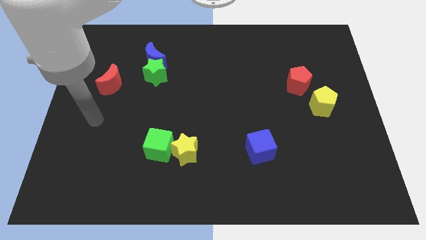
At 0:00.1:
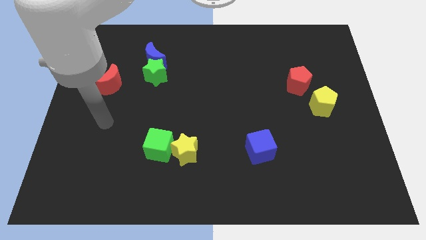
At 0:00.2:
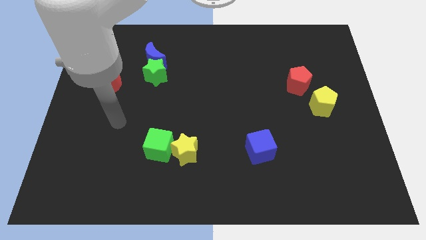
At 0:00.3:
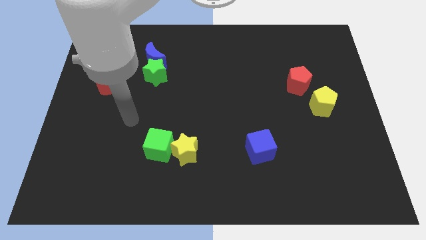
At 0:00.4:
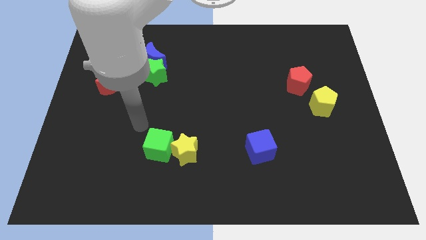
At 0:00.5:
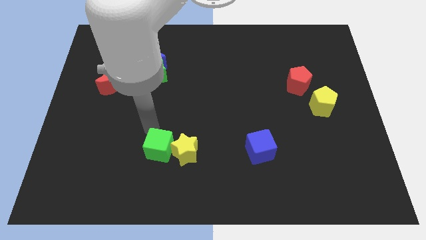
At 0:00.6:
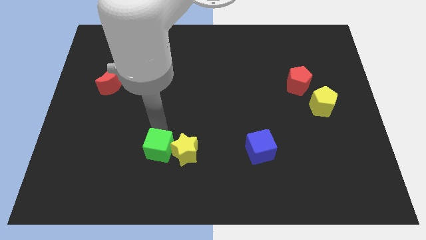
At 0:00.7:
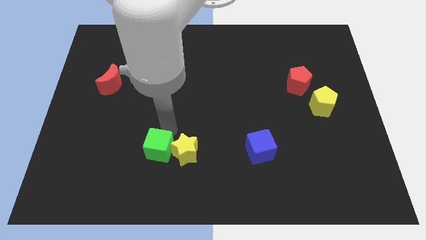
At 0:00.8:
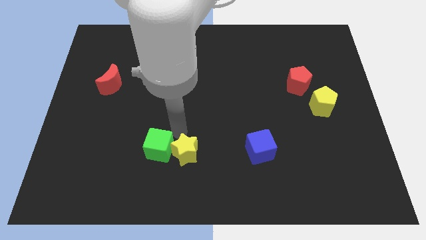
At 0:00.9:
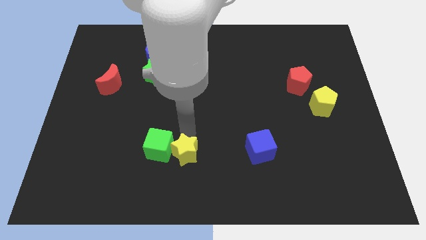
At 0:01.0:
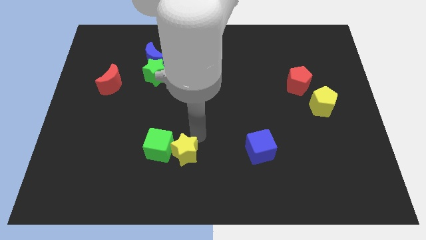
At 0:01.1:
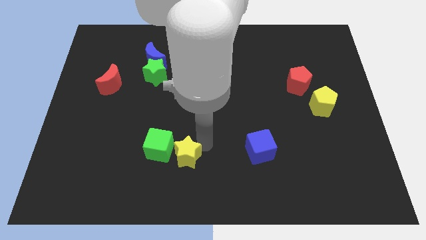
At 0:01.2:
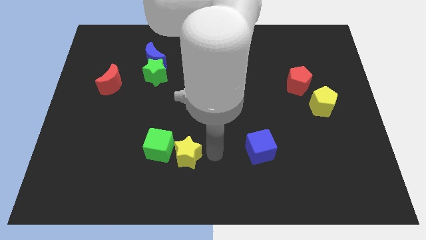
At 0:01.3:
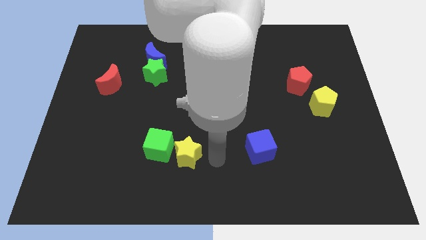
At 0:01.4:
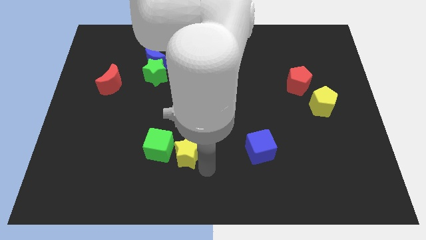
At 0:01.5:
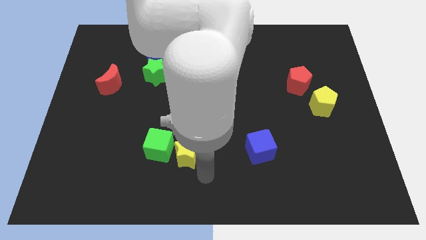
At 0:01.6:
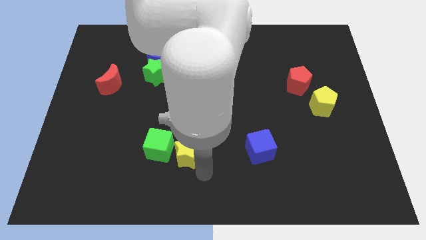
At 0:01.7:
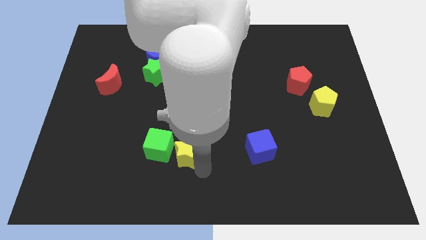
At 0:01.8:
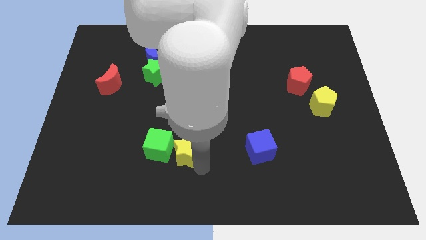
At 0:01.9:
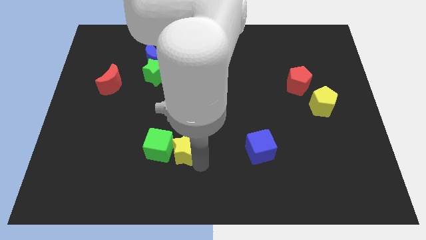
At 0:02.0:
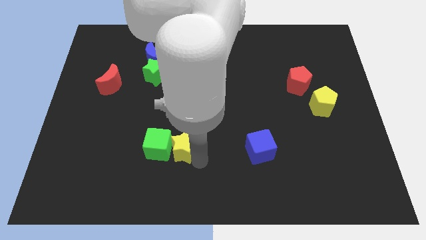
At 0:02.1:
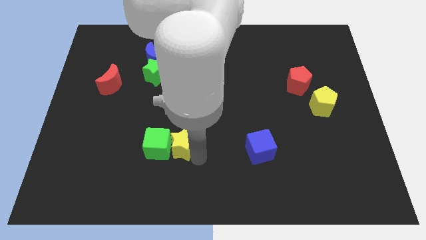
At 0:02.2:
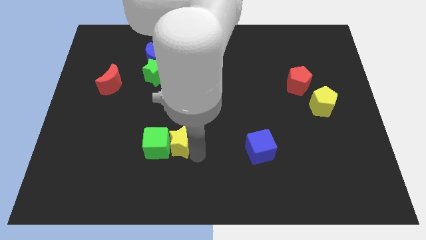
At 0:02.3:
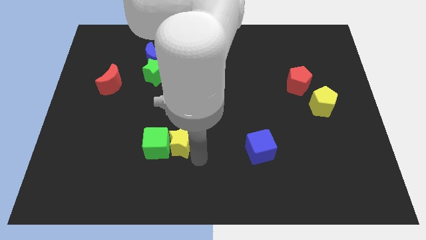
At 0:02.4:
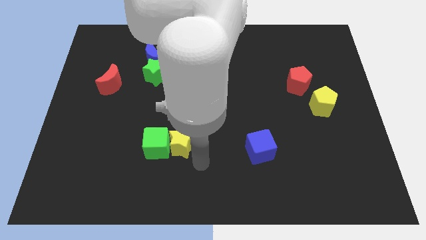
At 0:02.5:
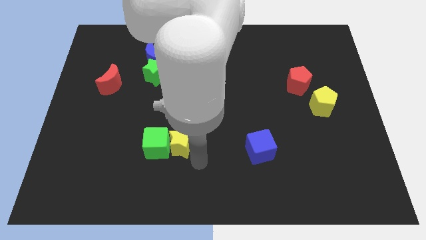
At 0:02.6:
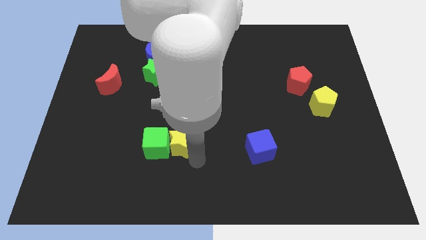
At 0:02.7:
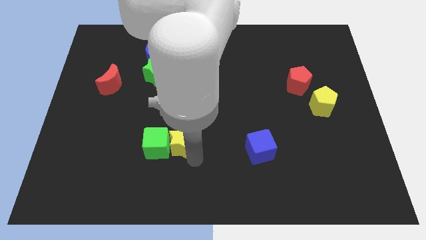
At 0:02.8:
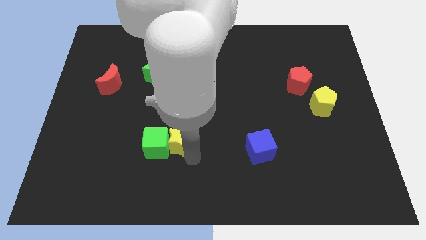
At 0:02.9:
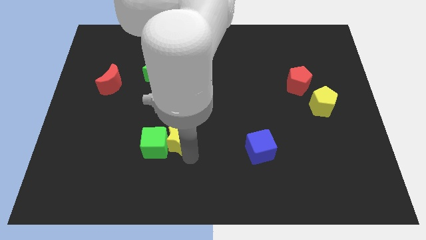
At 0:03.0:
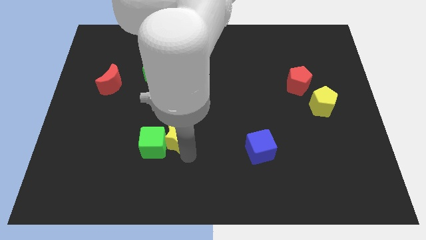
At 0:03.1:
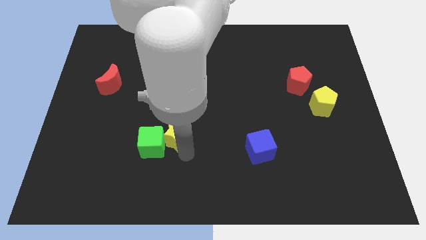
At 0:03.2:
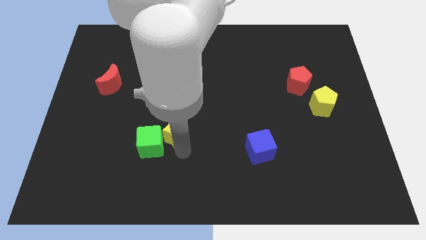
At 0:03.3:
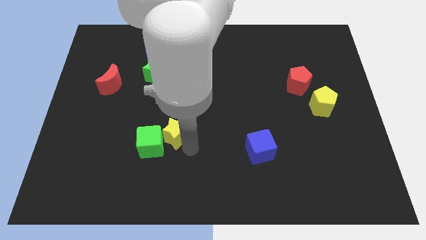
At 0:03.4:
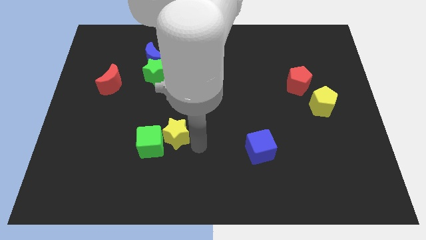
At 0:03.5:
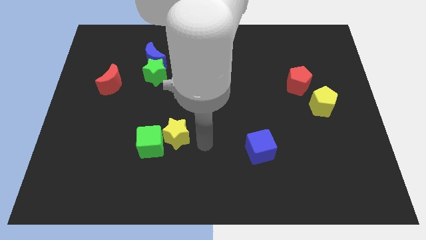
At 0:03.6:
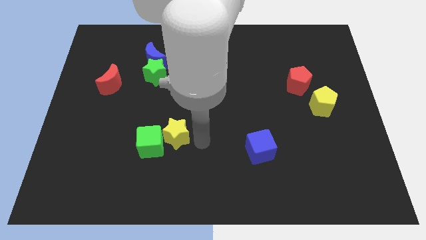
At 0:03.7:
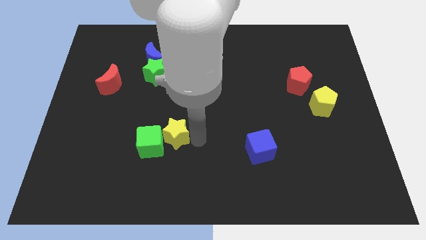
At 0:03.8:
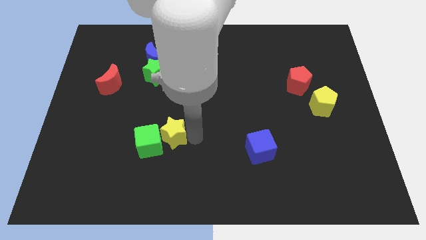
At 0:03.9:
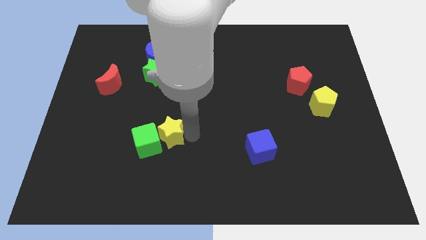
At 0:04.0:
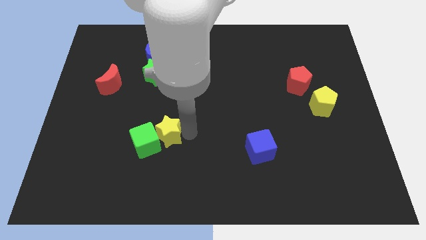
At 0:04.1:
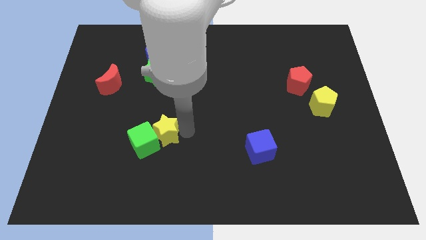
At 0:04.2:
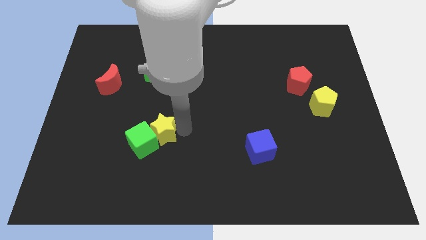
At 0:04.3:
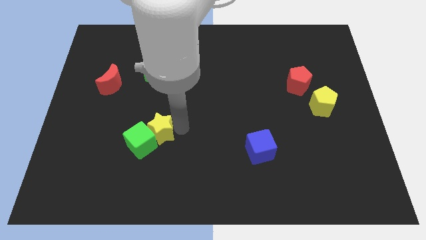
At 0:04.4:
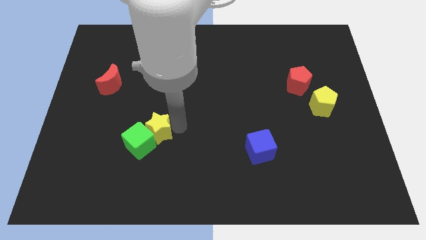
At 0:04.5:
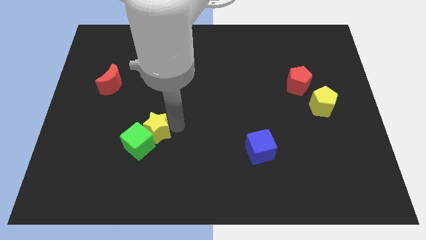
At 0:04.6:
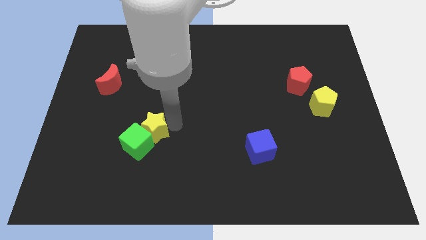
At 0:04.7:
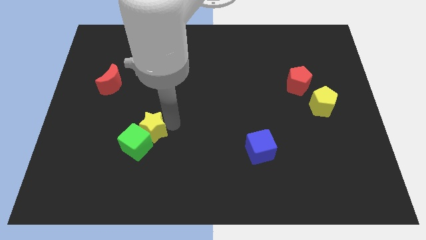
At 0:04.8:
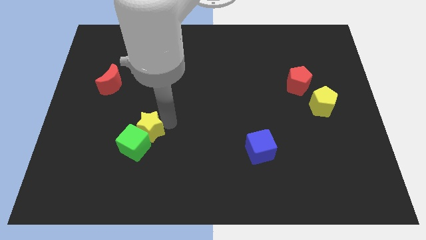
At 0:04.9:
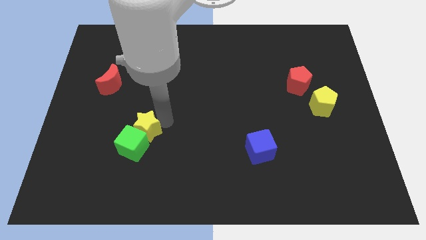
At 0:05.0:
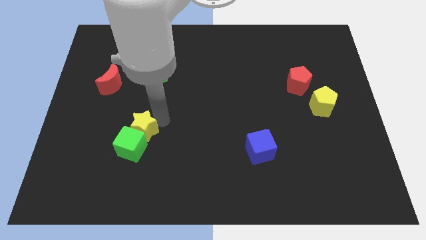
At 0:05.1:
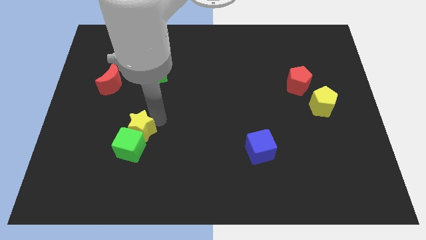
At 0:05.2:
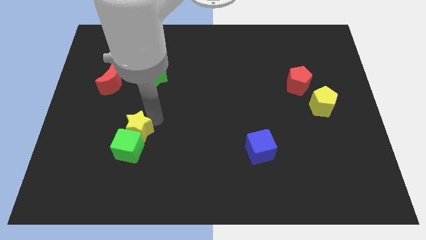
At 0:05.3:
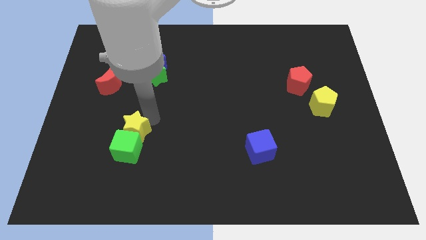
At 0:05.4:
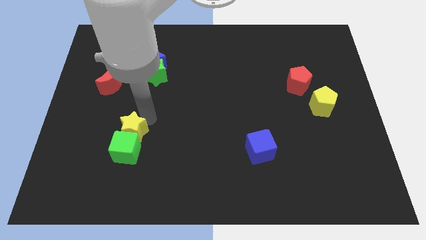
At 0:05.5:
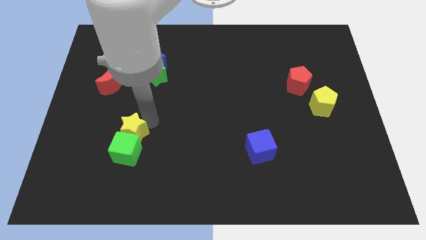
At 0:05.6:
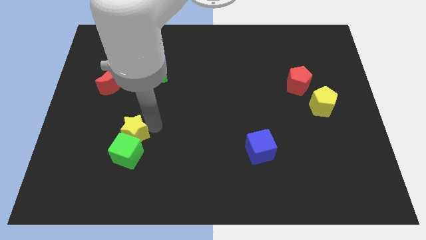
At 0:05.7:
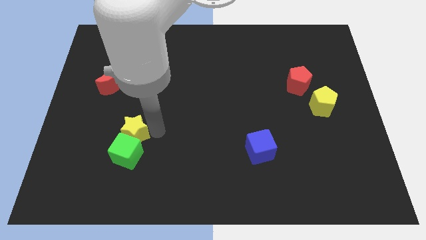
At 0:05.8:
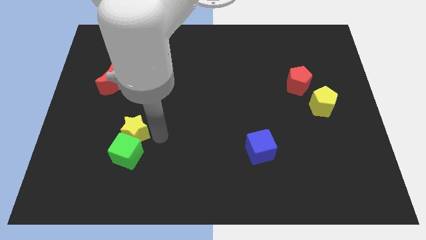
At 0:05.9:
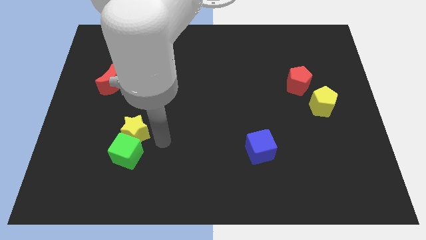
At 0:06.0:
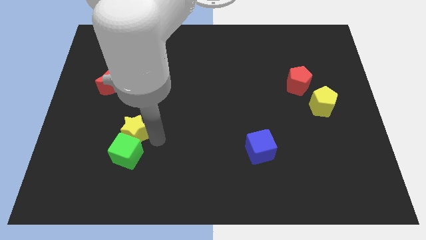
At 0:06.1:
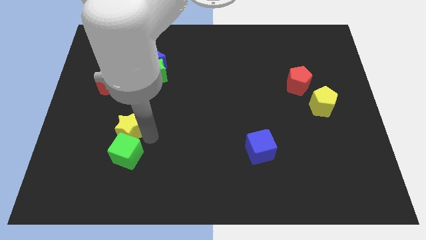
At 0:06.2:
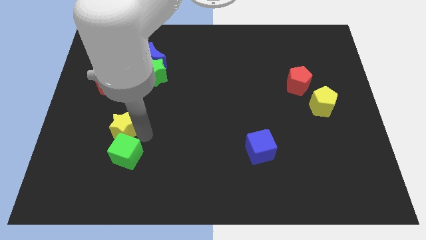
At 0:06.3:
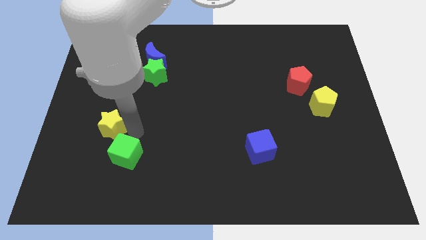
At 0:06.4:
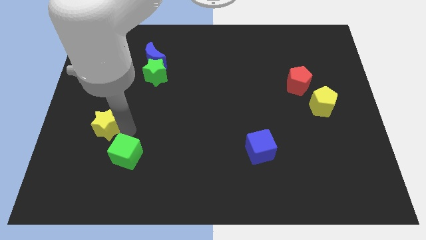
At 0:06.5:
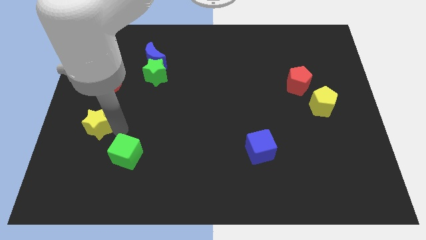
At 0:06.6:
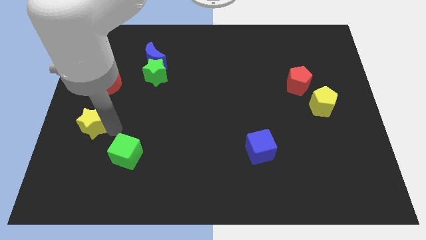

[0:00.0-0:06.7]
put the yellow star to the left side of the board
